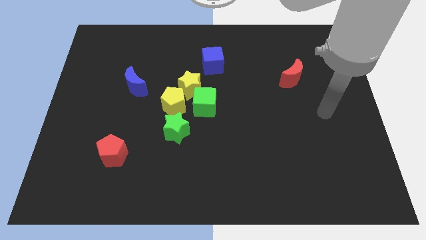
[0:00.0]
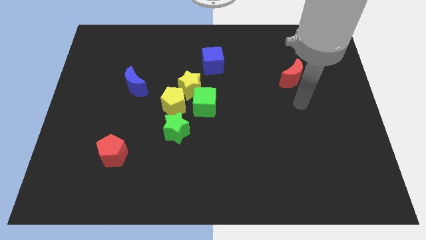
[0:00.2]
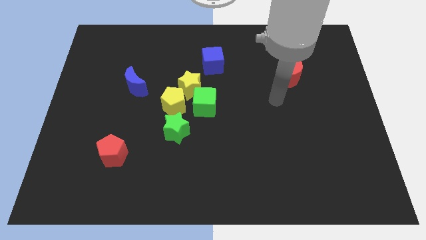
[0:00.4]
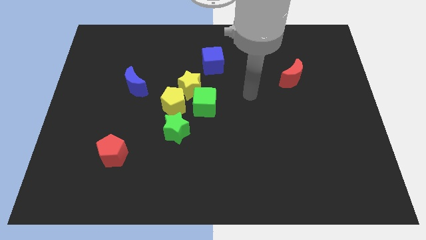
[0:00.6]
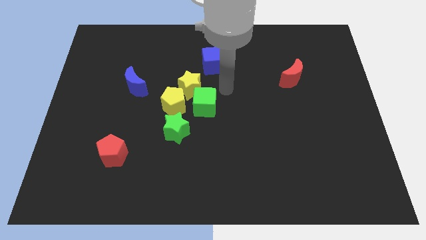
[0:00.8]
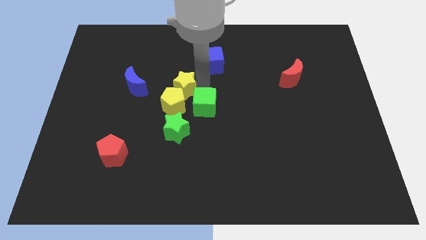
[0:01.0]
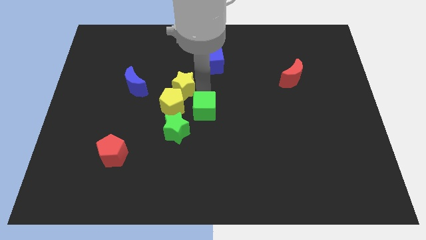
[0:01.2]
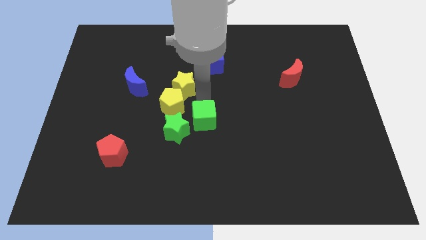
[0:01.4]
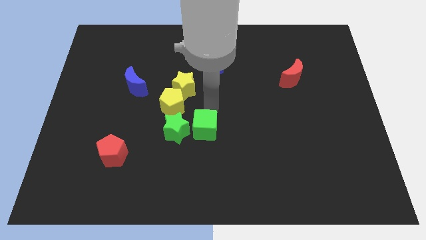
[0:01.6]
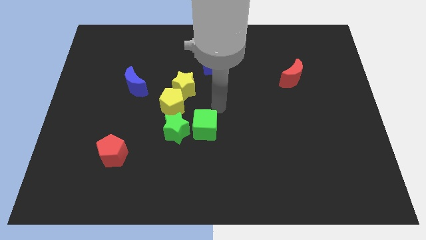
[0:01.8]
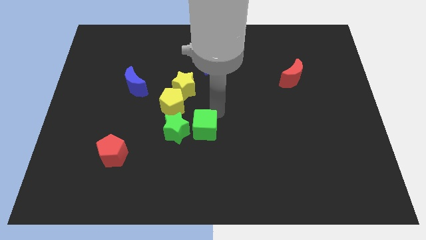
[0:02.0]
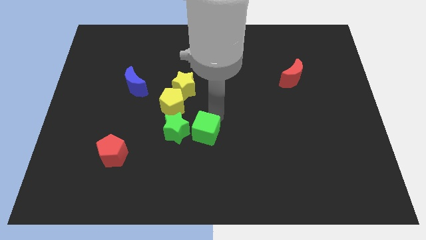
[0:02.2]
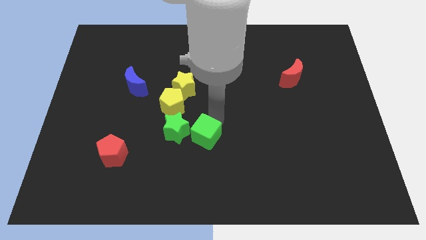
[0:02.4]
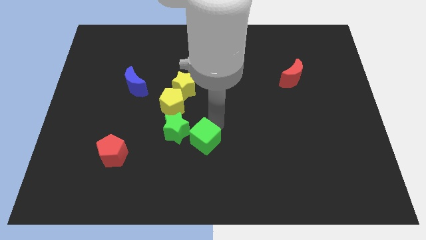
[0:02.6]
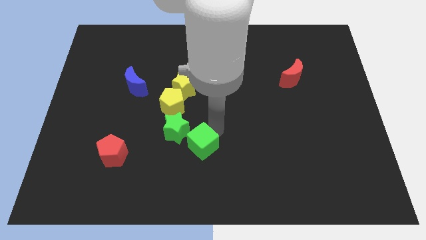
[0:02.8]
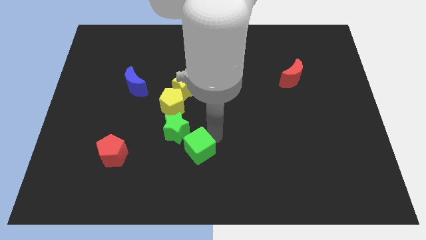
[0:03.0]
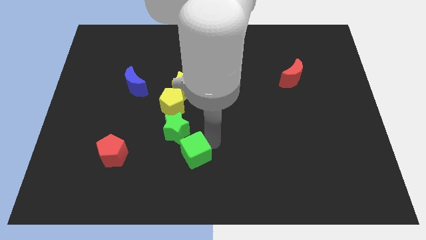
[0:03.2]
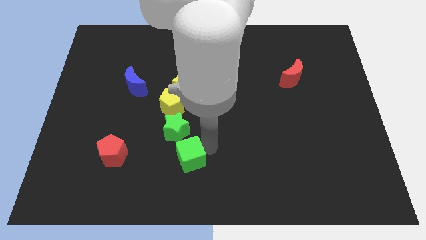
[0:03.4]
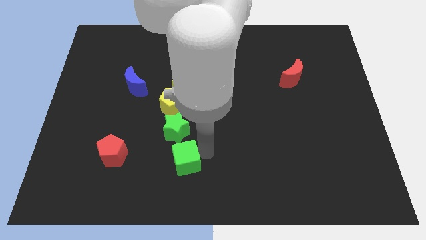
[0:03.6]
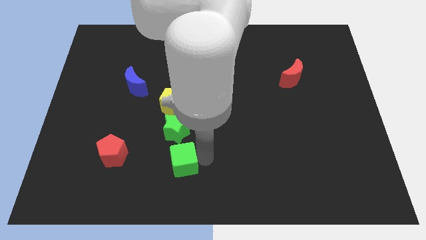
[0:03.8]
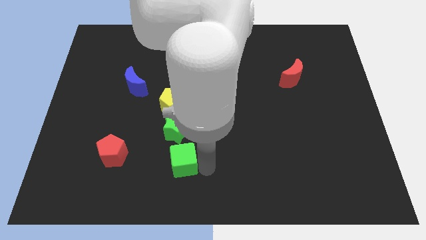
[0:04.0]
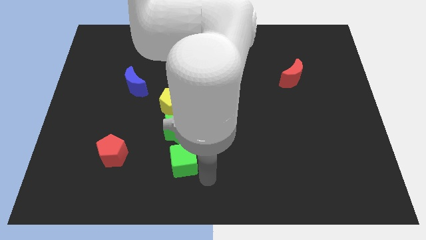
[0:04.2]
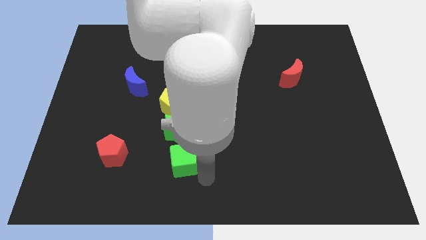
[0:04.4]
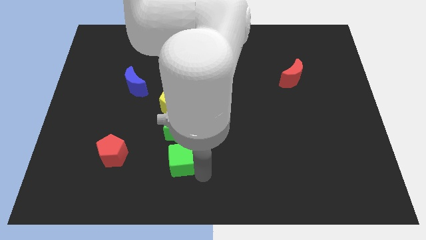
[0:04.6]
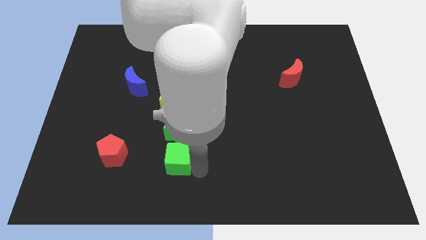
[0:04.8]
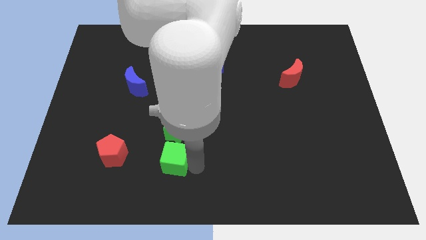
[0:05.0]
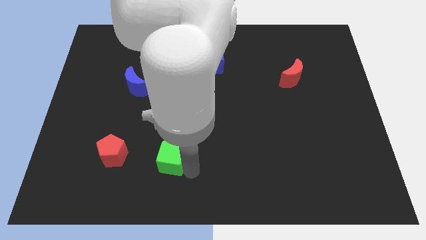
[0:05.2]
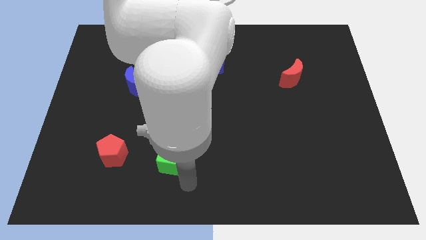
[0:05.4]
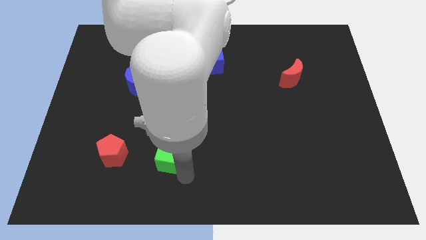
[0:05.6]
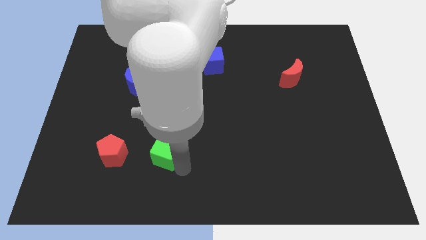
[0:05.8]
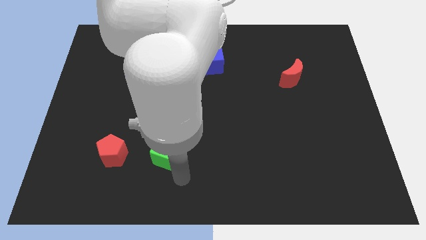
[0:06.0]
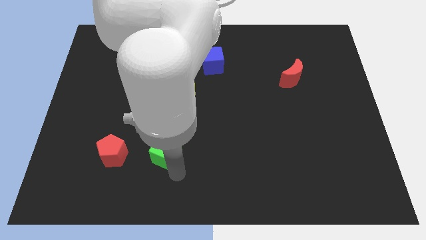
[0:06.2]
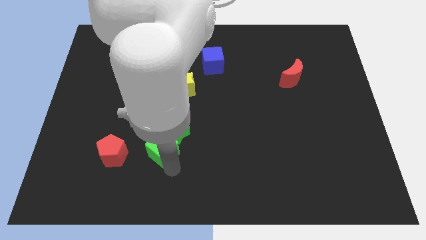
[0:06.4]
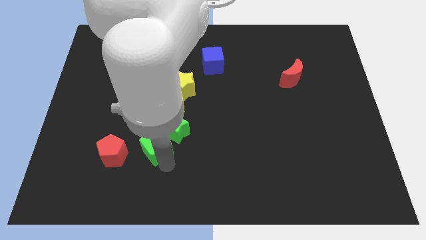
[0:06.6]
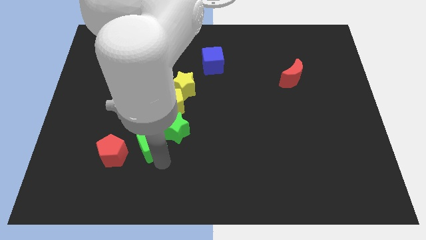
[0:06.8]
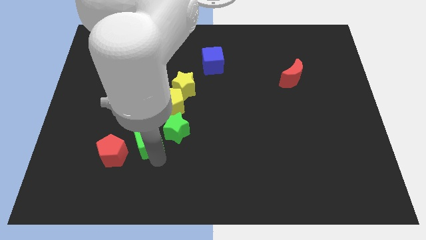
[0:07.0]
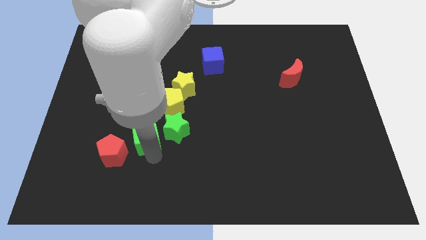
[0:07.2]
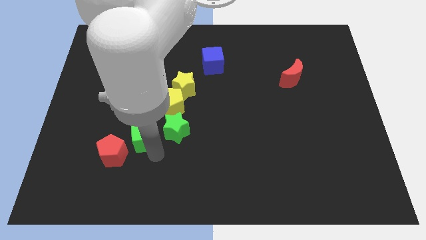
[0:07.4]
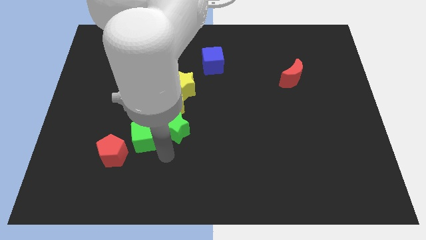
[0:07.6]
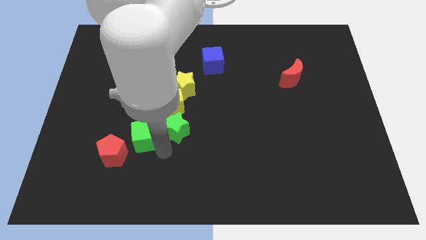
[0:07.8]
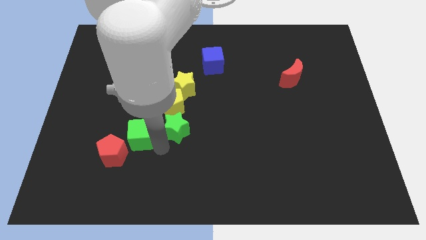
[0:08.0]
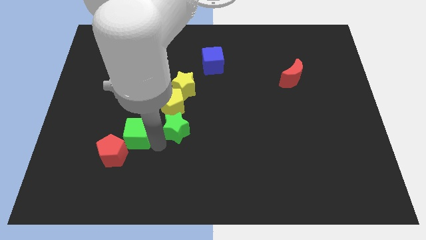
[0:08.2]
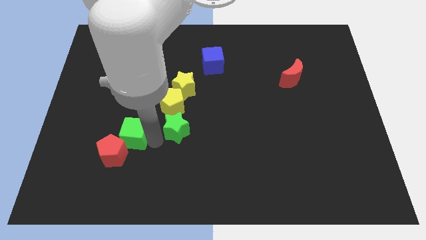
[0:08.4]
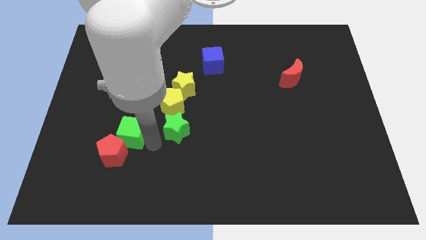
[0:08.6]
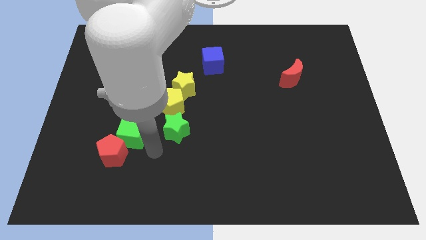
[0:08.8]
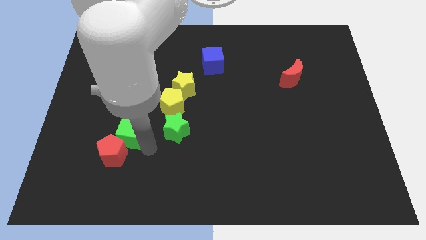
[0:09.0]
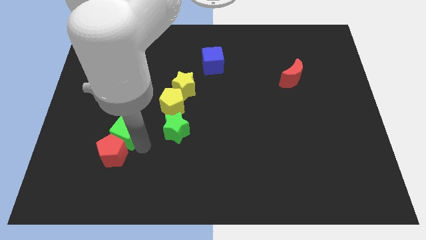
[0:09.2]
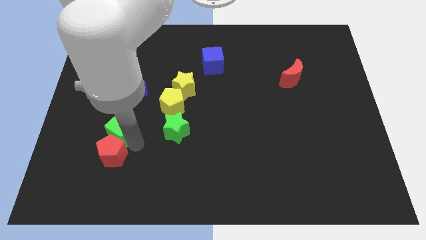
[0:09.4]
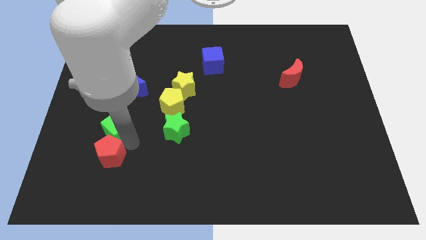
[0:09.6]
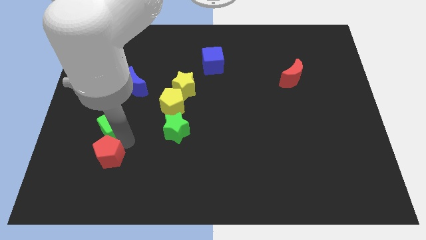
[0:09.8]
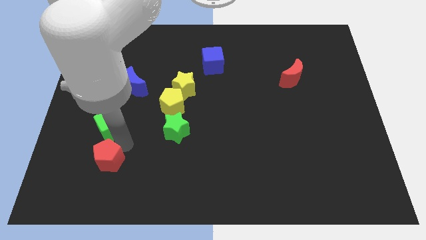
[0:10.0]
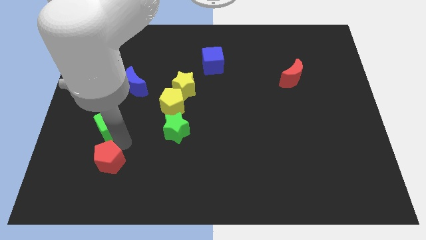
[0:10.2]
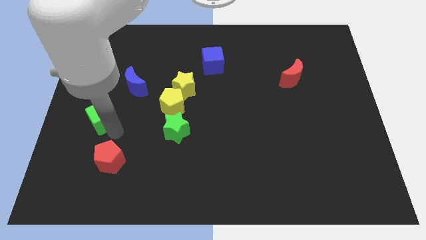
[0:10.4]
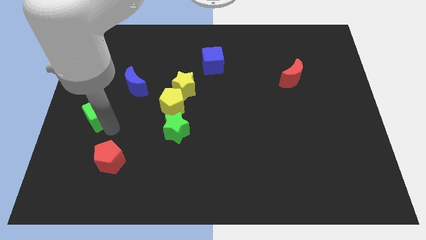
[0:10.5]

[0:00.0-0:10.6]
move the green cube to the center left
